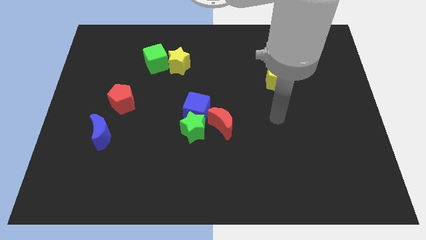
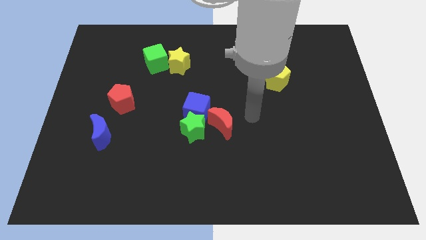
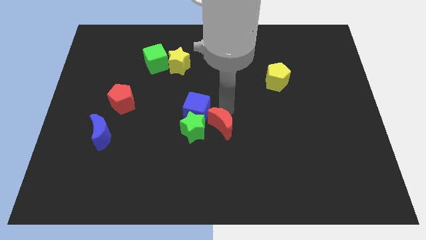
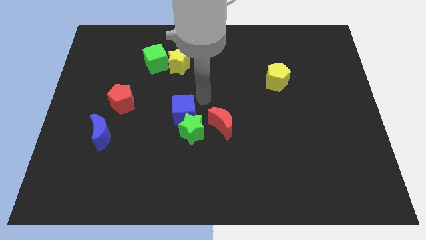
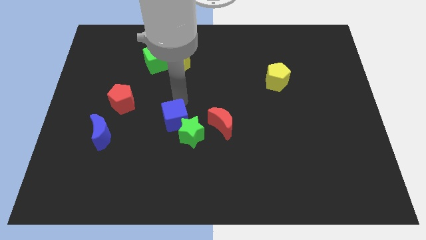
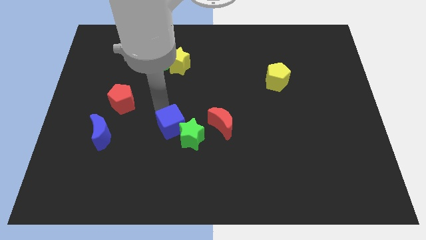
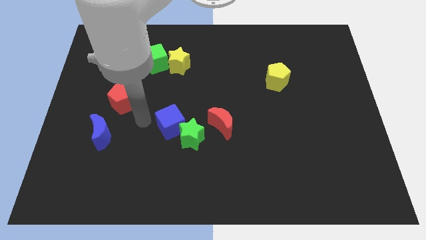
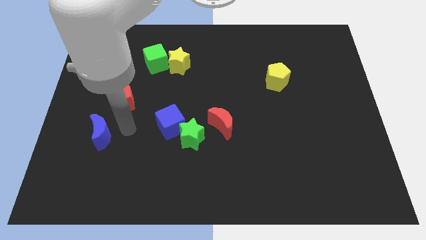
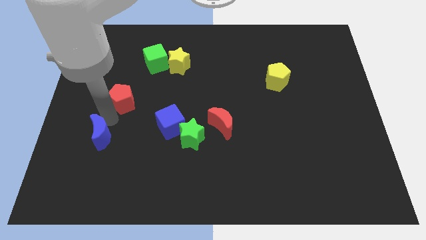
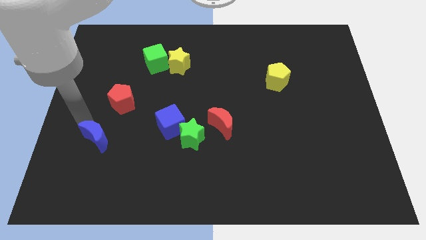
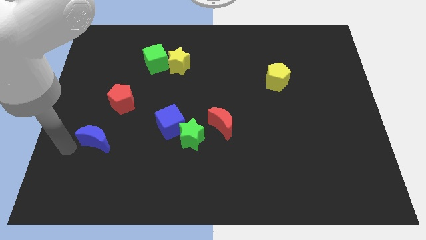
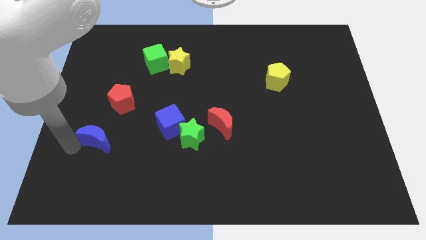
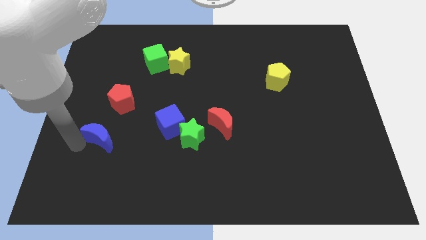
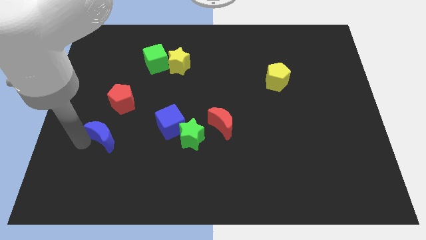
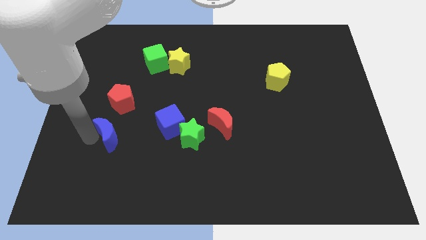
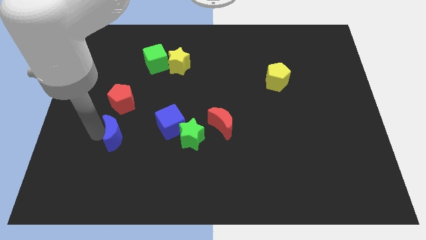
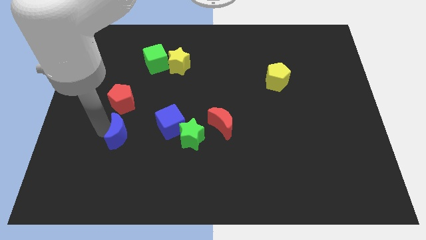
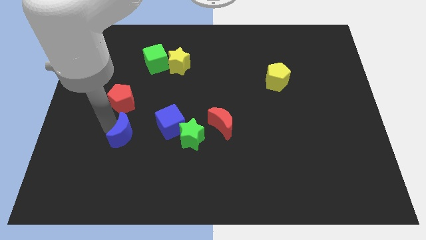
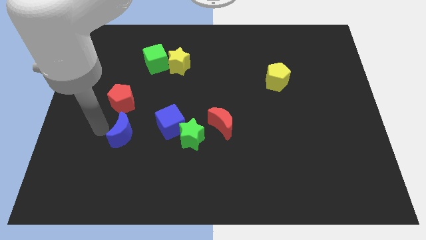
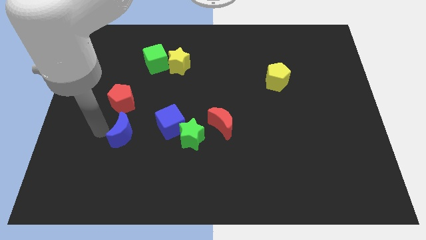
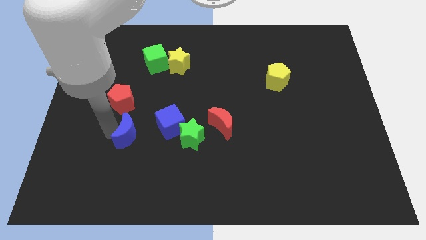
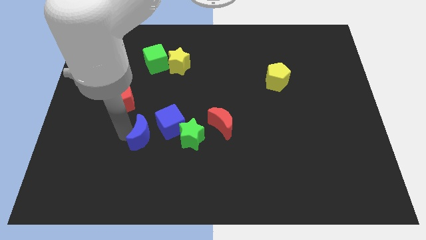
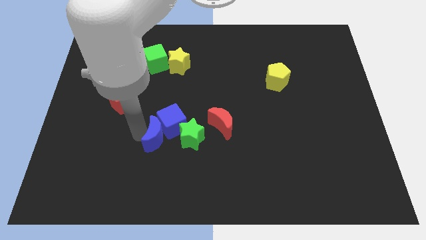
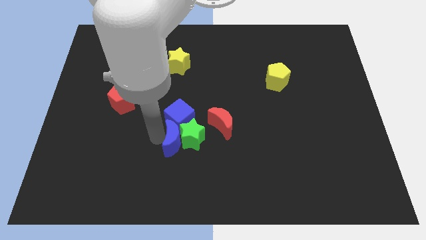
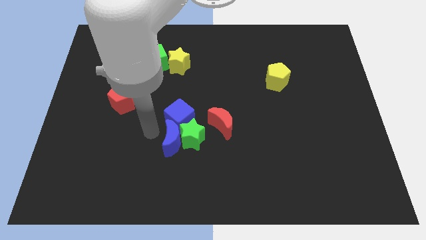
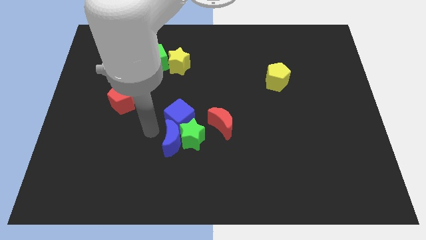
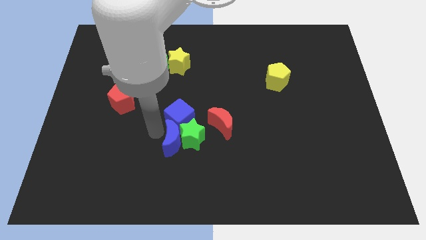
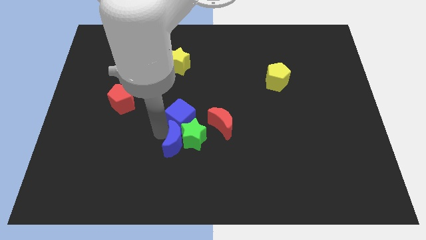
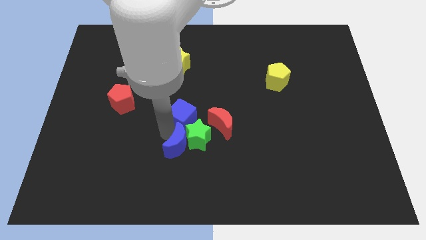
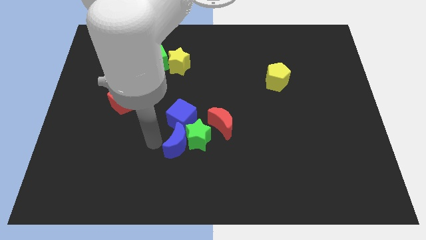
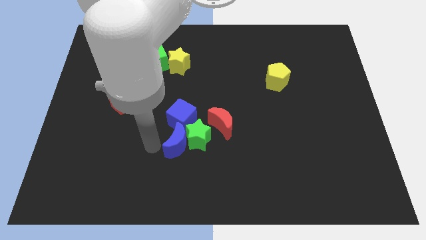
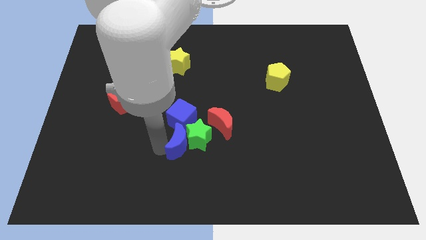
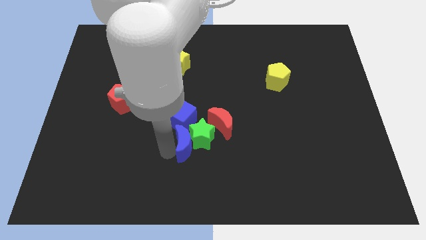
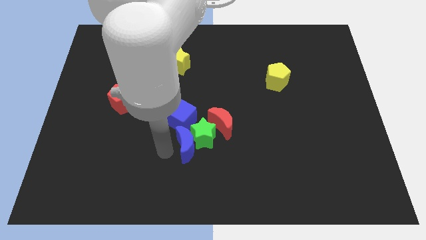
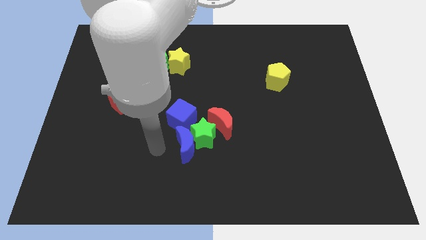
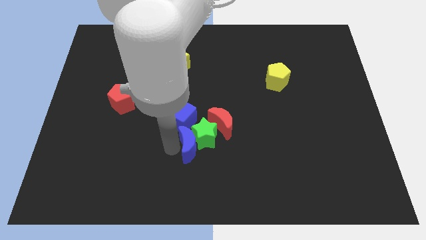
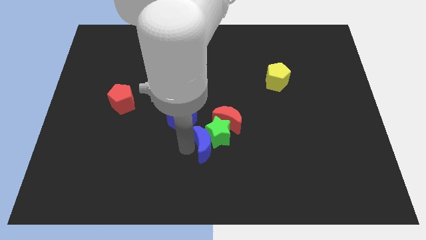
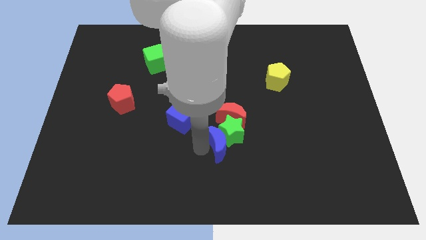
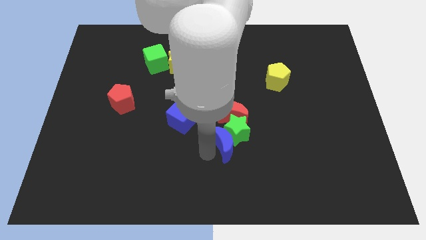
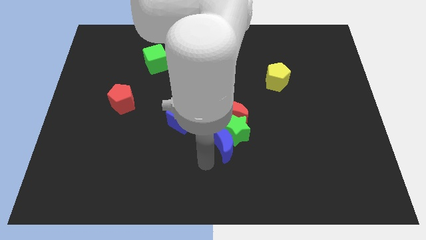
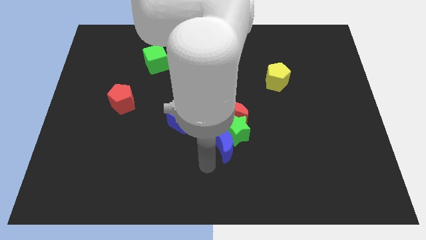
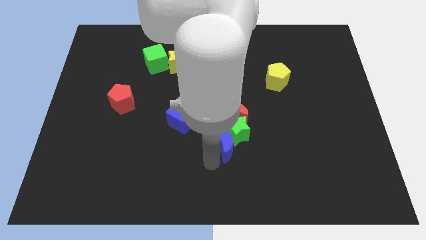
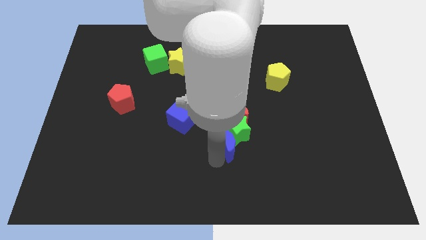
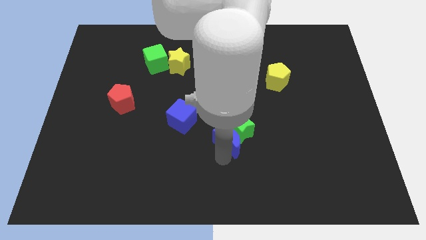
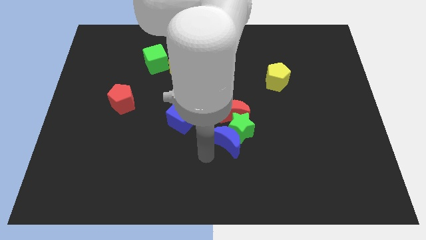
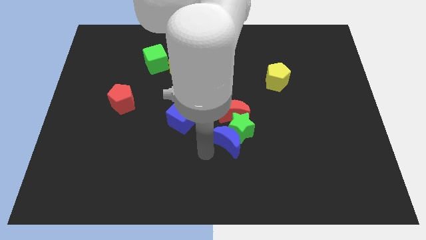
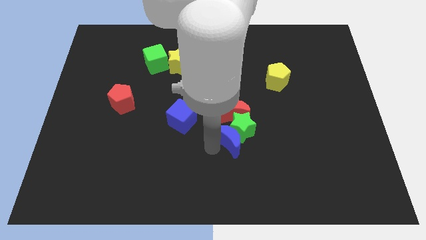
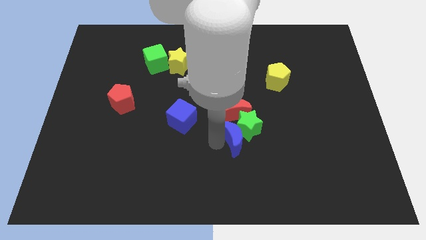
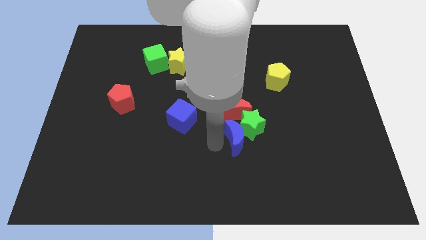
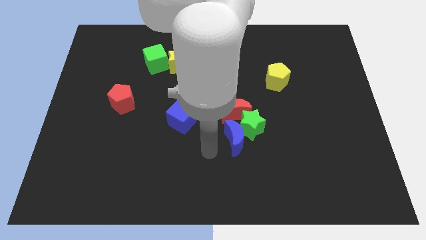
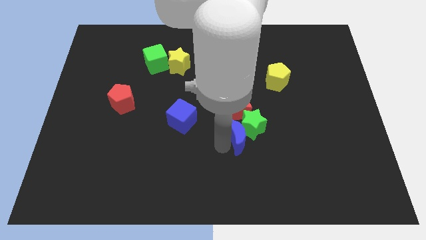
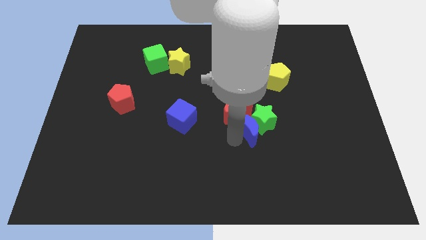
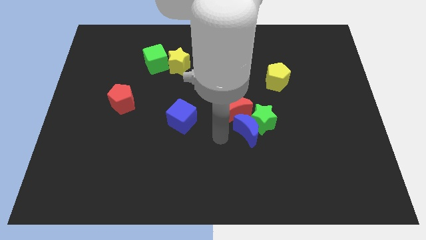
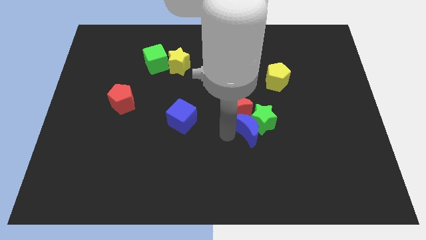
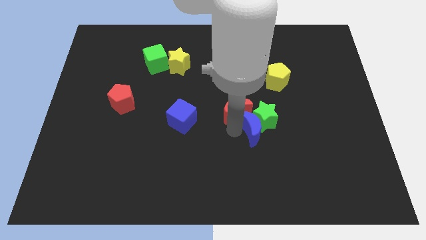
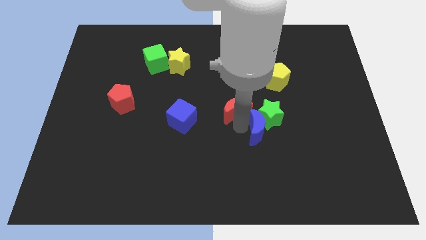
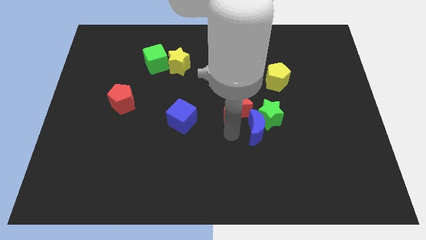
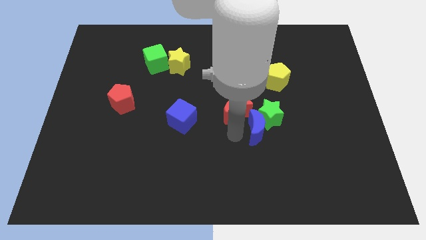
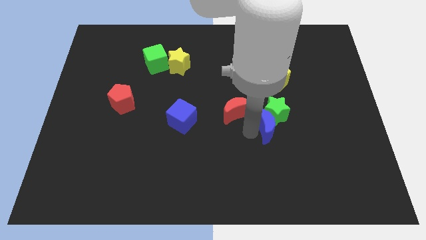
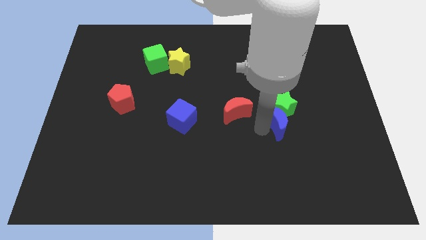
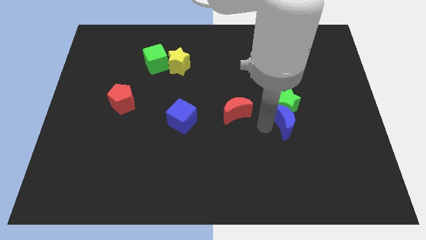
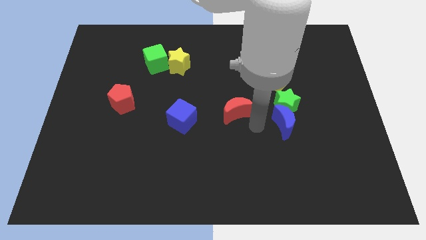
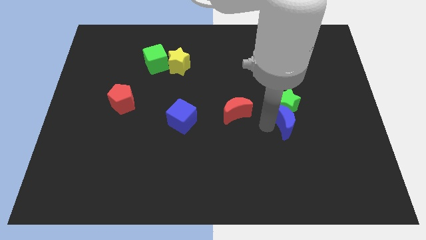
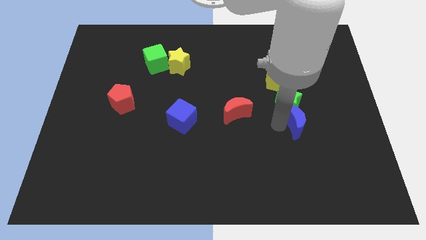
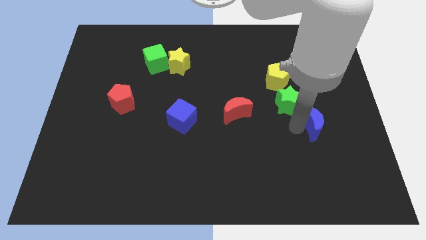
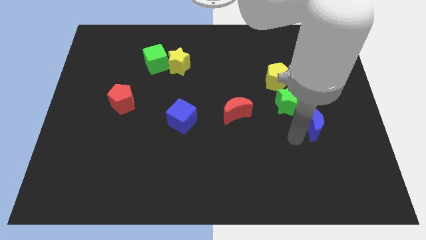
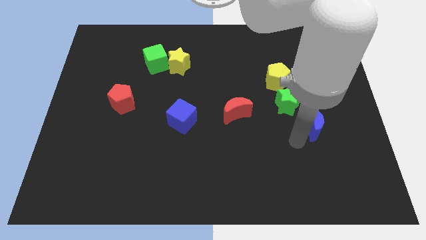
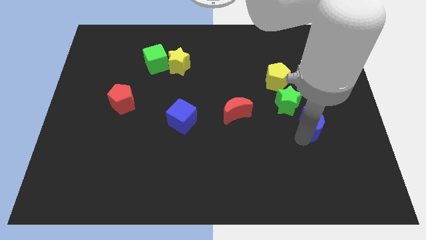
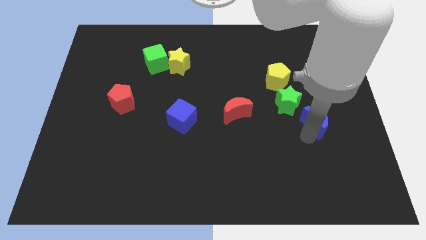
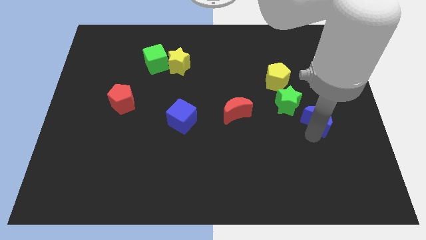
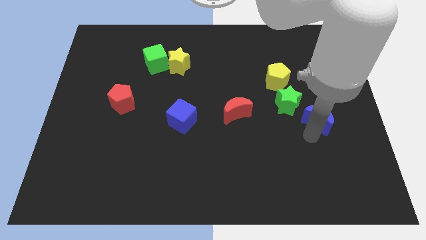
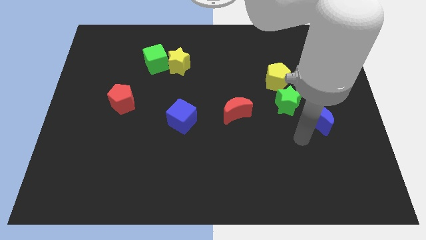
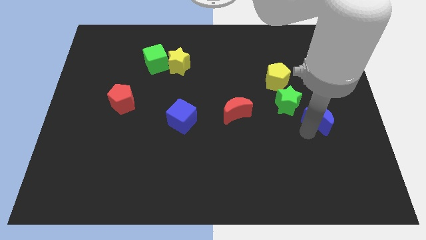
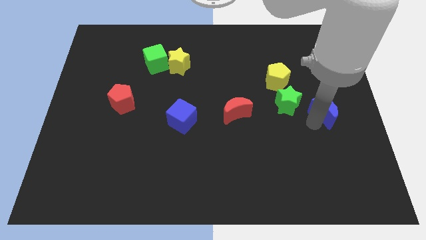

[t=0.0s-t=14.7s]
slide the blue moon to the right side
